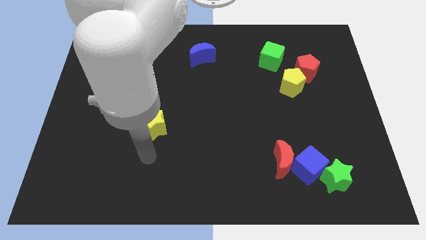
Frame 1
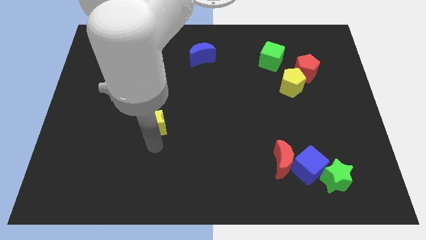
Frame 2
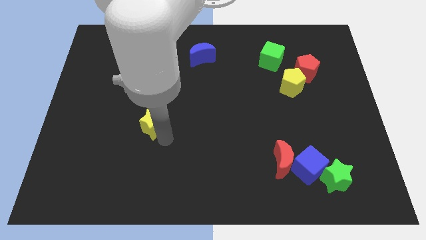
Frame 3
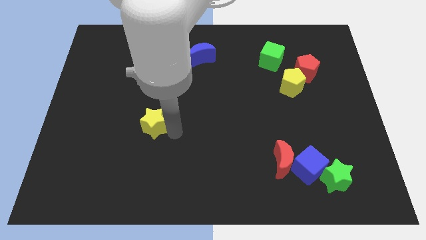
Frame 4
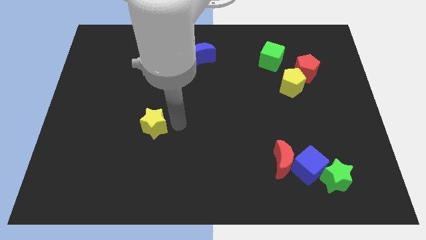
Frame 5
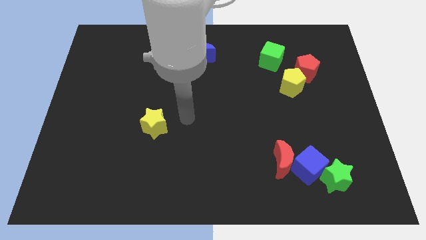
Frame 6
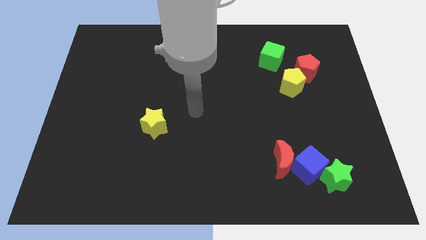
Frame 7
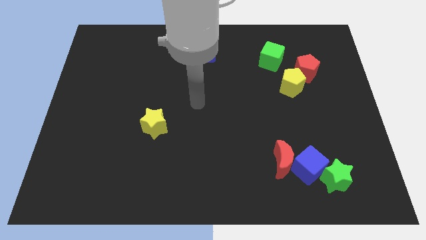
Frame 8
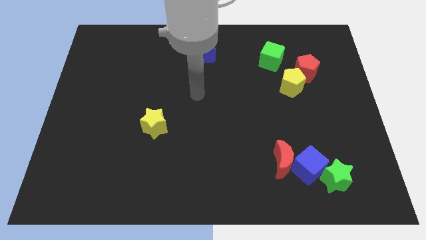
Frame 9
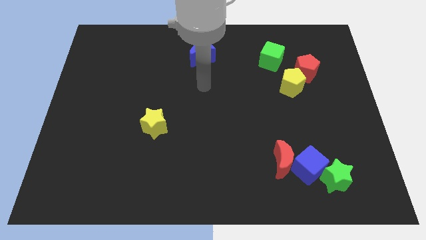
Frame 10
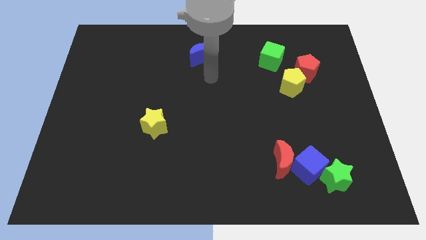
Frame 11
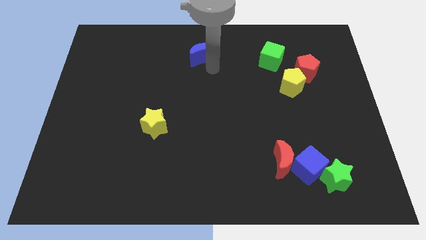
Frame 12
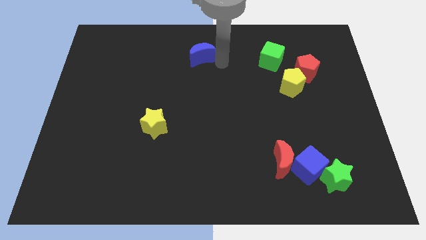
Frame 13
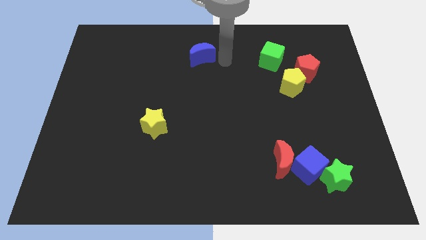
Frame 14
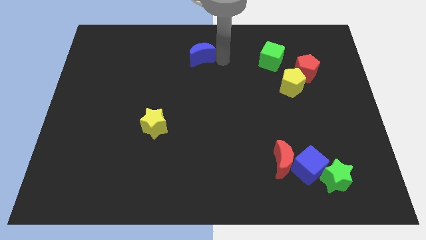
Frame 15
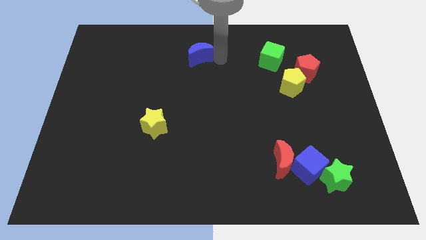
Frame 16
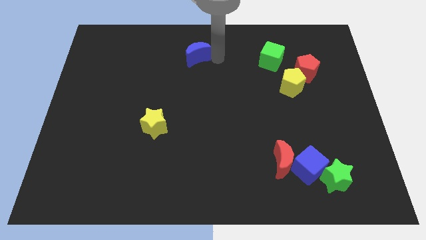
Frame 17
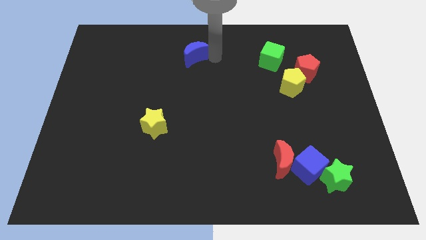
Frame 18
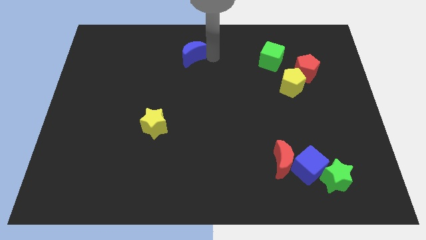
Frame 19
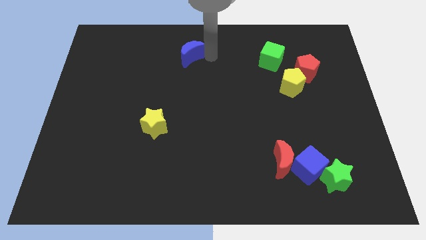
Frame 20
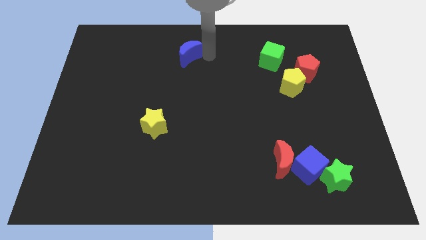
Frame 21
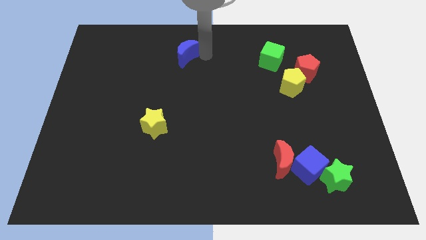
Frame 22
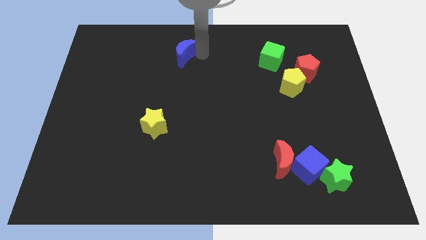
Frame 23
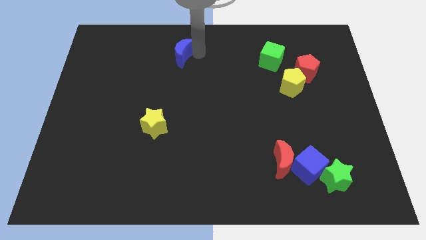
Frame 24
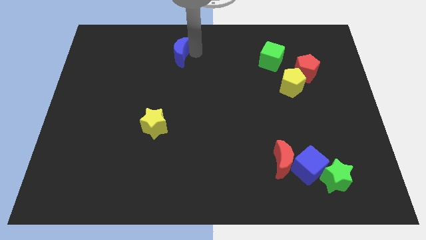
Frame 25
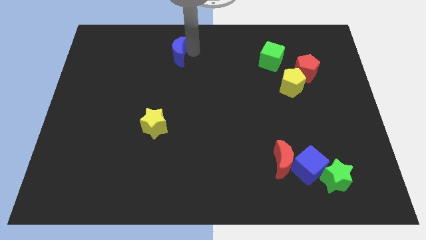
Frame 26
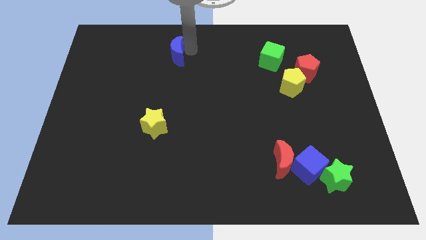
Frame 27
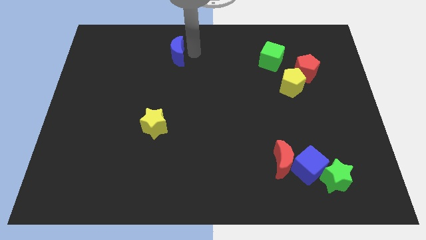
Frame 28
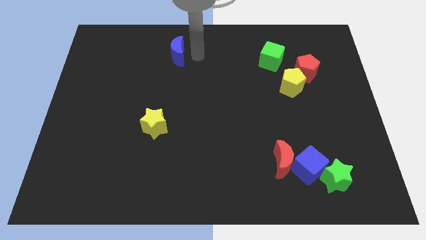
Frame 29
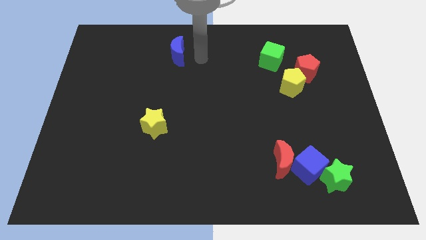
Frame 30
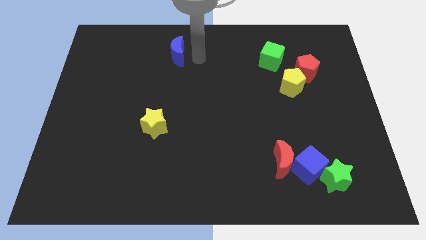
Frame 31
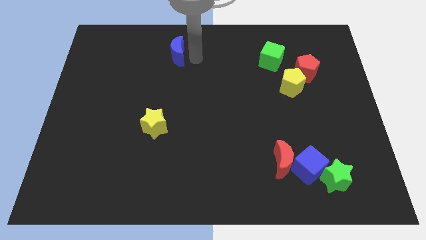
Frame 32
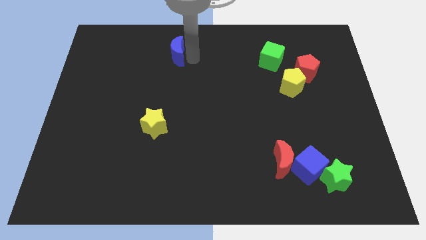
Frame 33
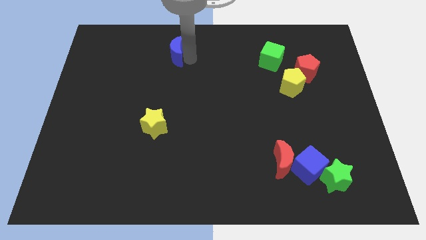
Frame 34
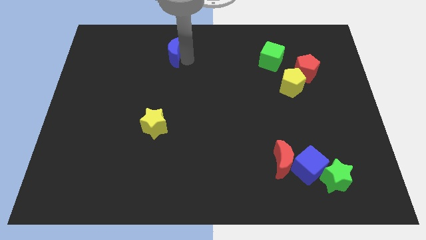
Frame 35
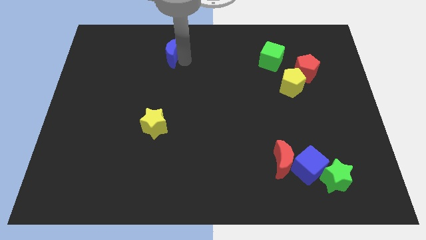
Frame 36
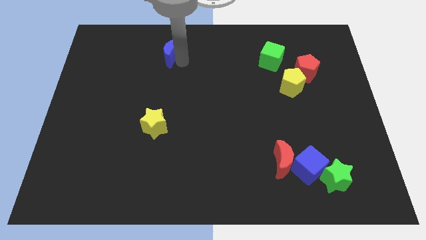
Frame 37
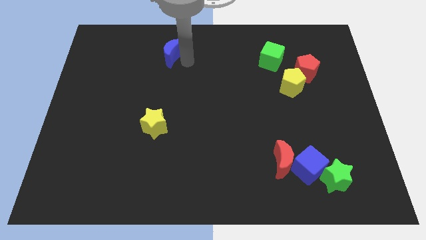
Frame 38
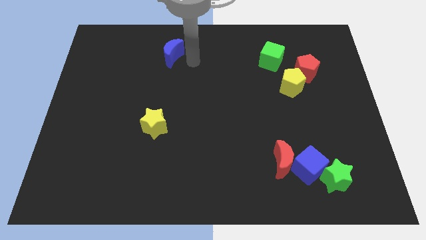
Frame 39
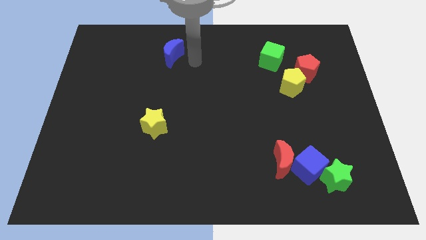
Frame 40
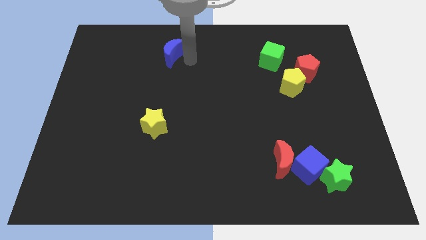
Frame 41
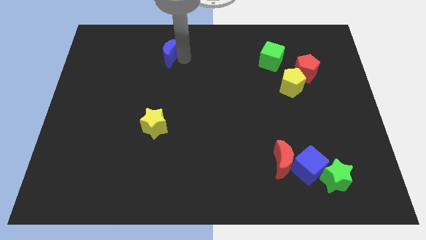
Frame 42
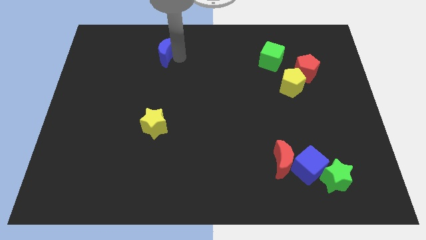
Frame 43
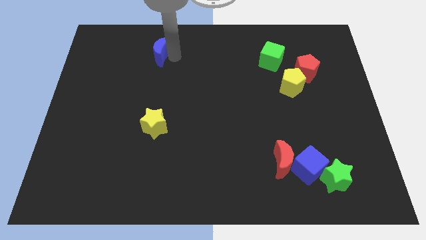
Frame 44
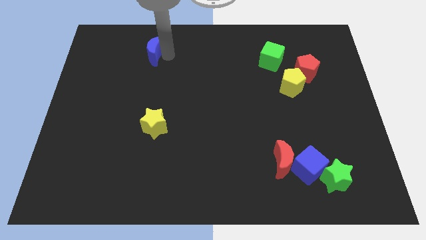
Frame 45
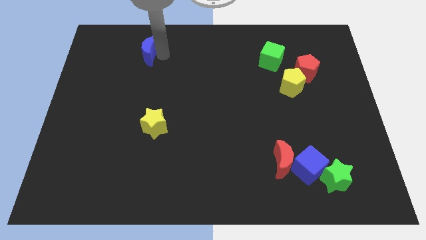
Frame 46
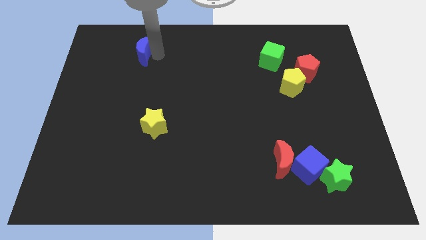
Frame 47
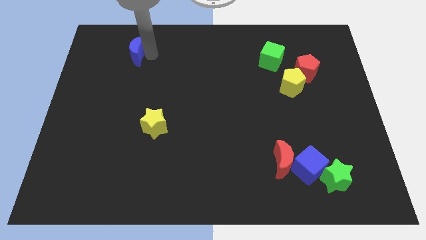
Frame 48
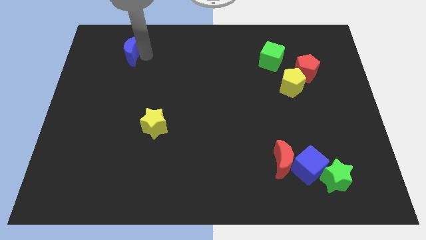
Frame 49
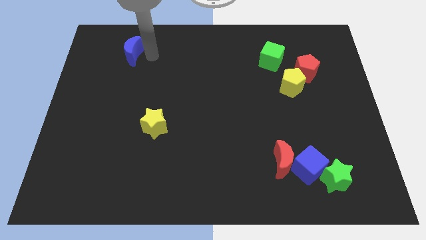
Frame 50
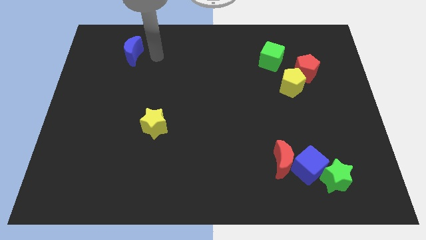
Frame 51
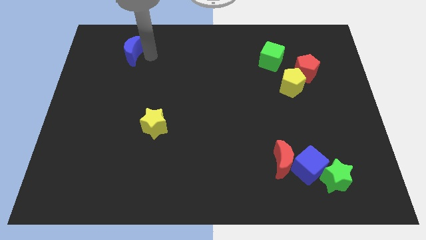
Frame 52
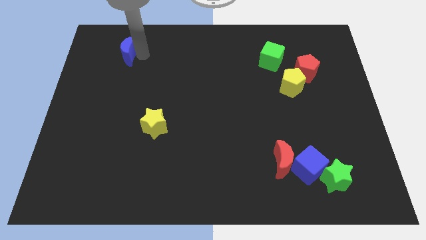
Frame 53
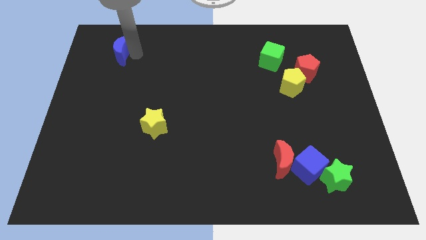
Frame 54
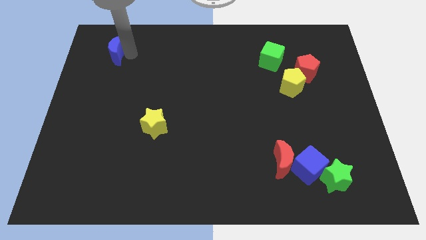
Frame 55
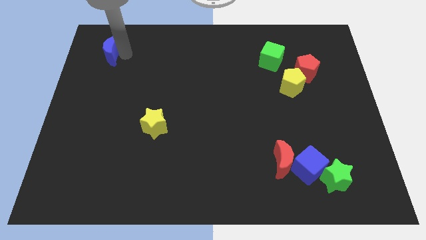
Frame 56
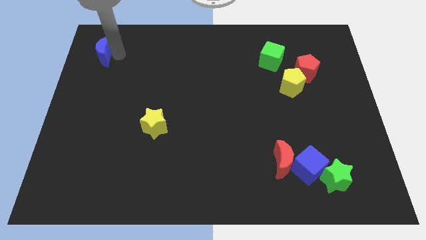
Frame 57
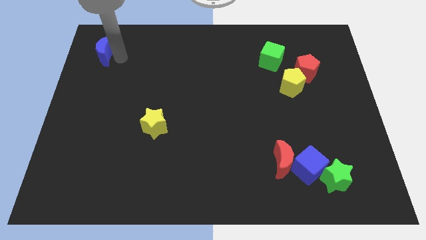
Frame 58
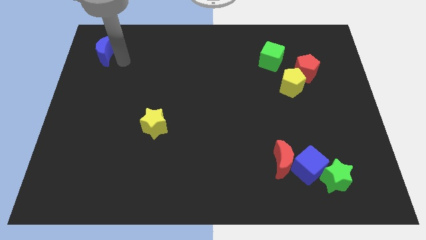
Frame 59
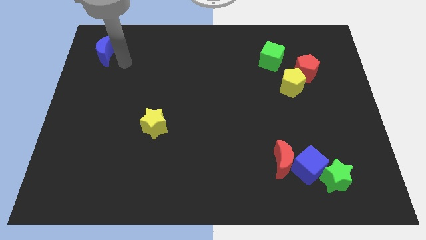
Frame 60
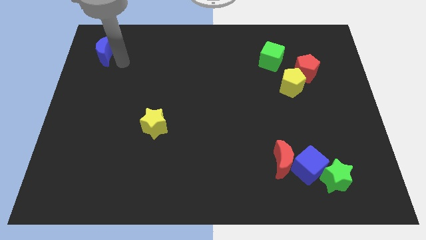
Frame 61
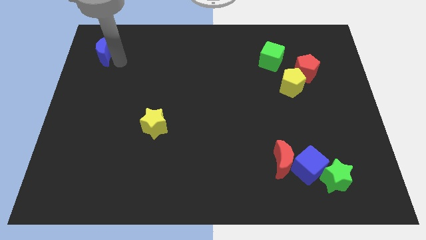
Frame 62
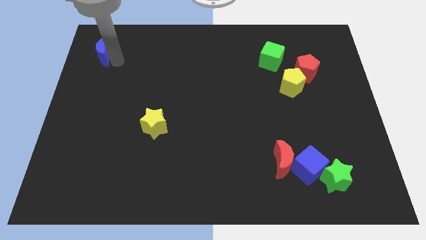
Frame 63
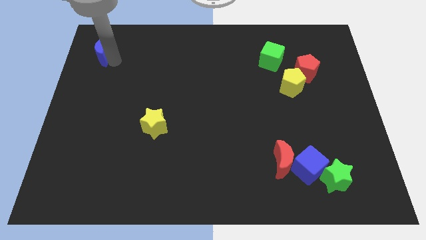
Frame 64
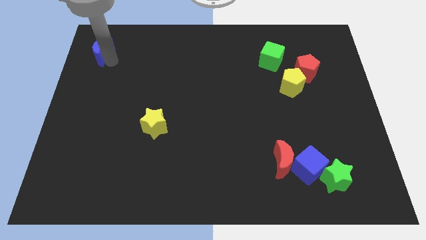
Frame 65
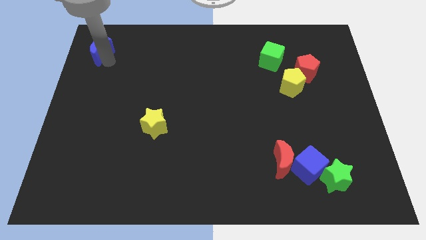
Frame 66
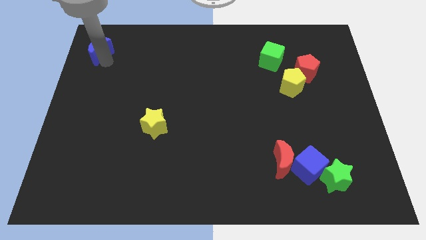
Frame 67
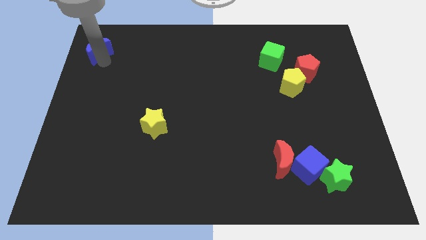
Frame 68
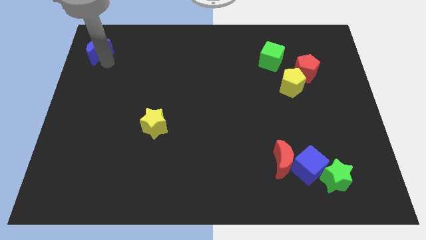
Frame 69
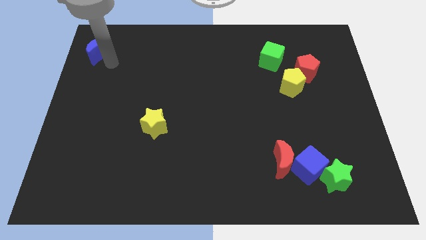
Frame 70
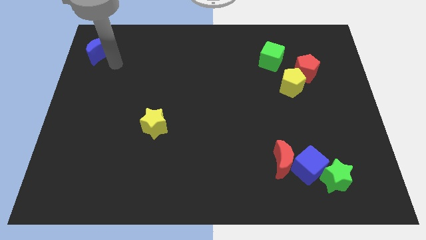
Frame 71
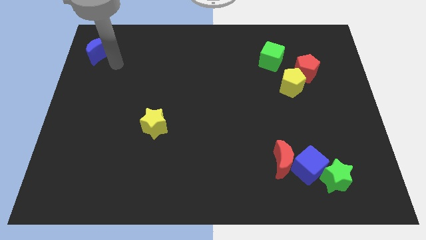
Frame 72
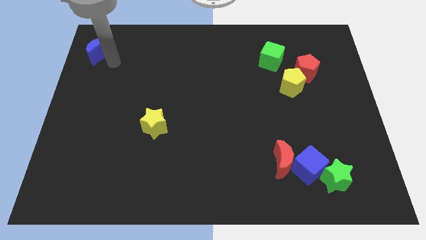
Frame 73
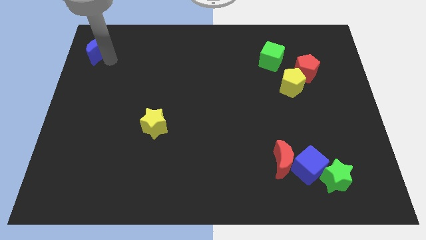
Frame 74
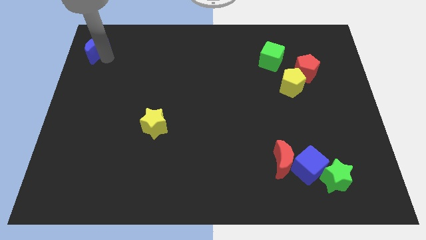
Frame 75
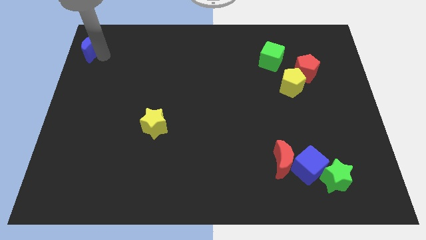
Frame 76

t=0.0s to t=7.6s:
push the blue moon to the upper left corner
